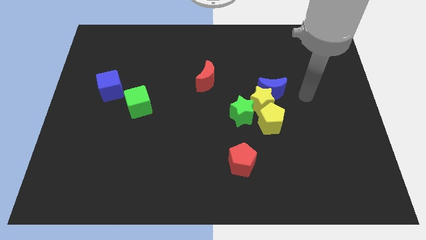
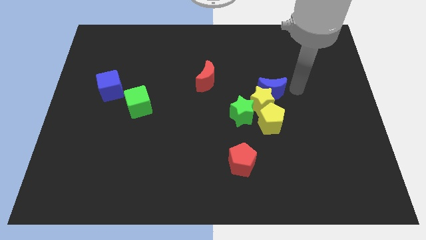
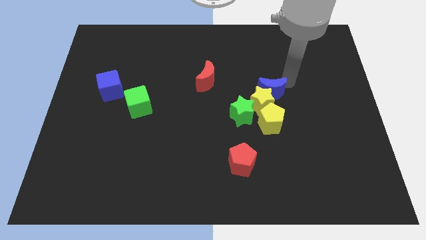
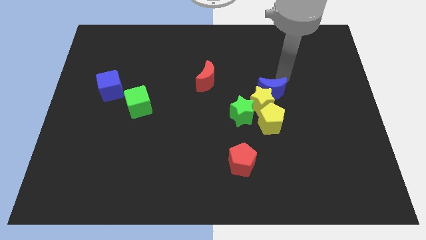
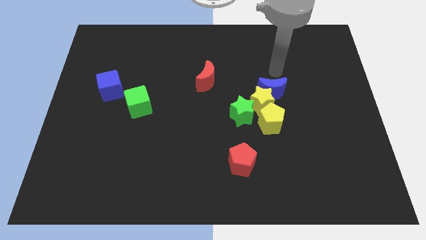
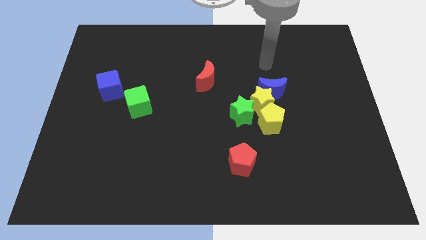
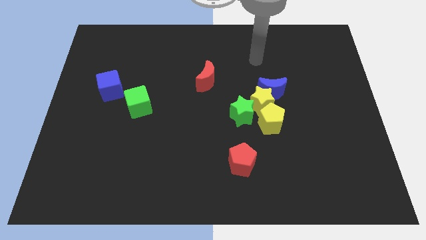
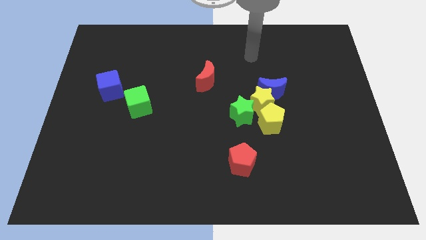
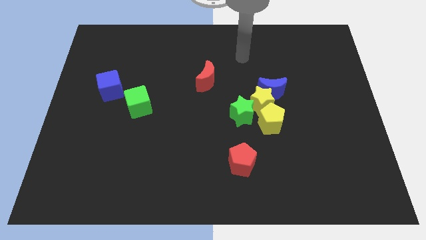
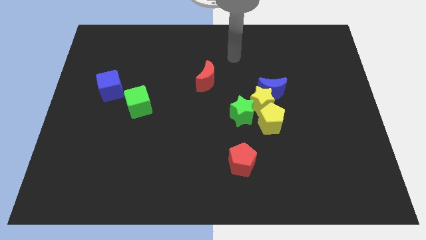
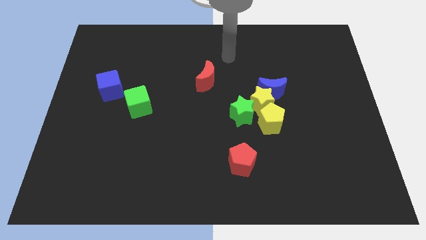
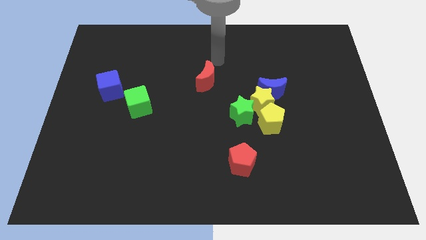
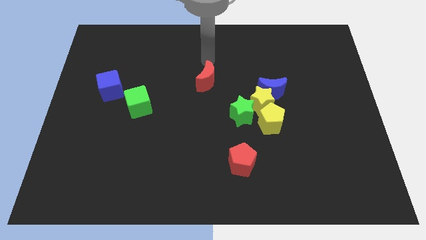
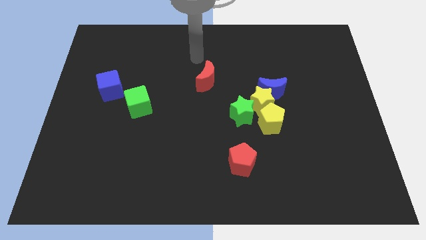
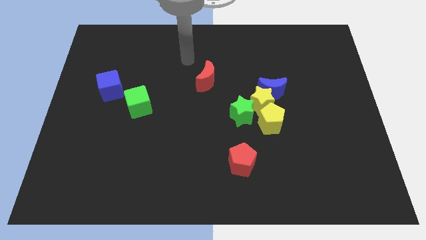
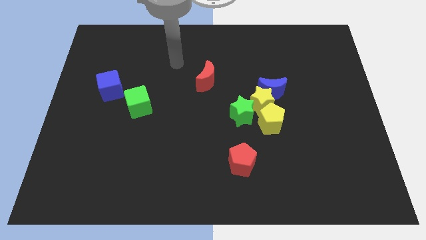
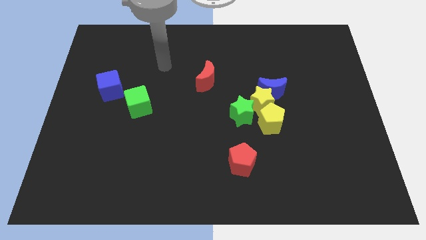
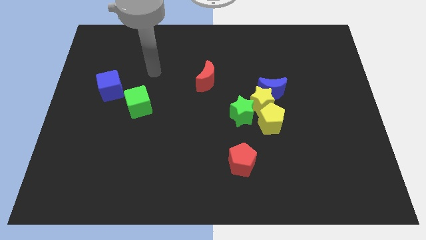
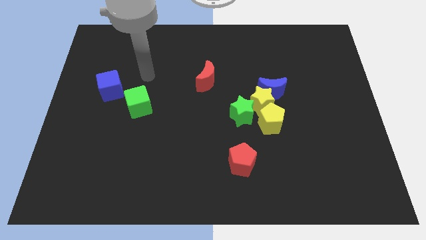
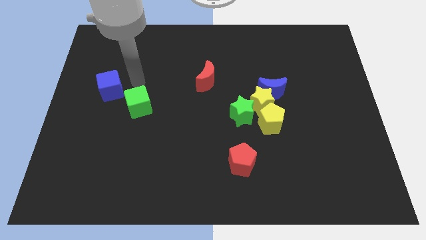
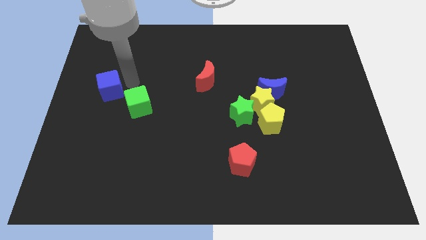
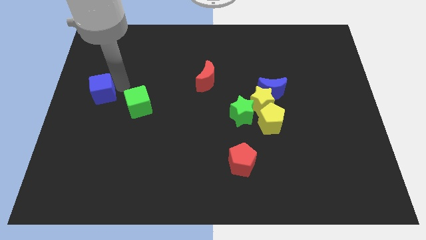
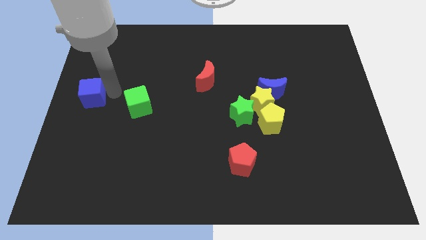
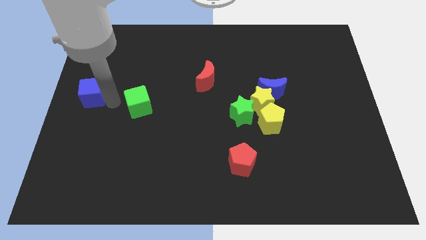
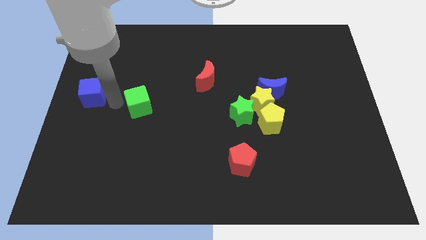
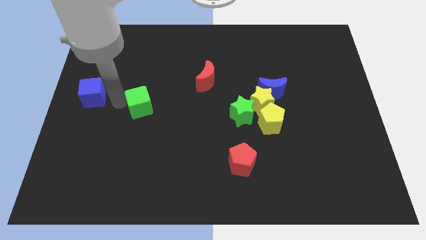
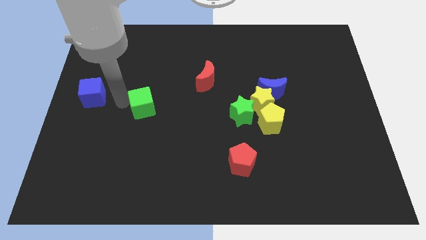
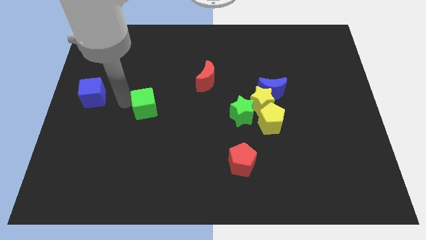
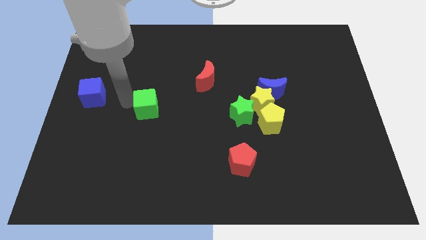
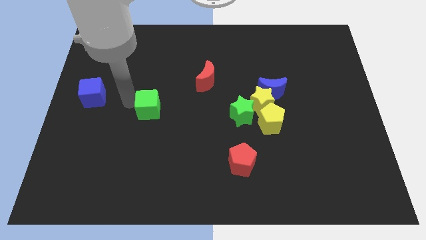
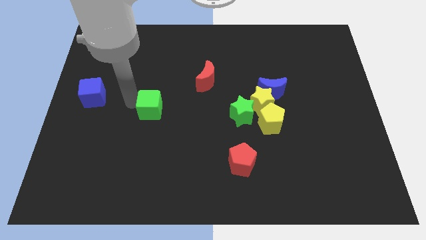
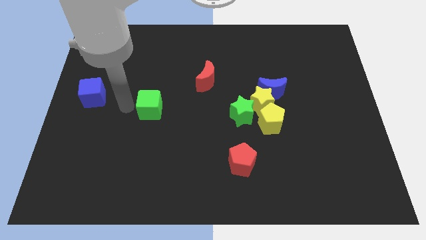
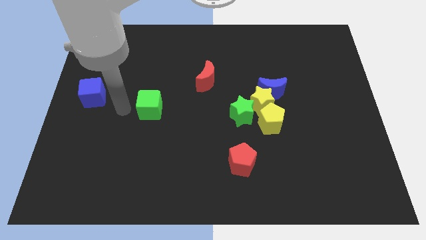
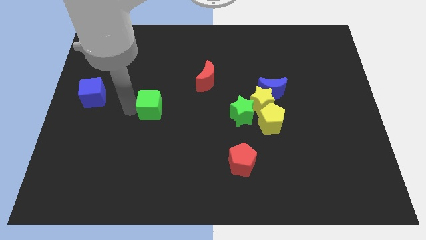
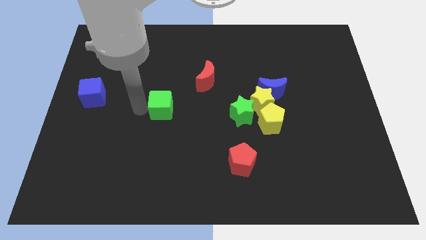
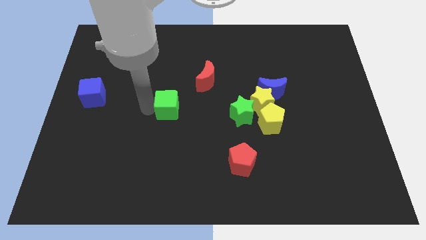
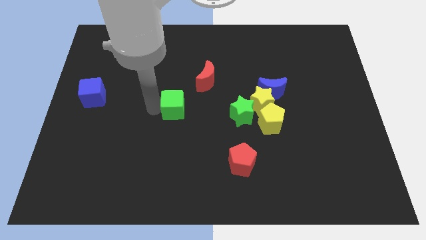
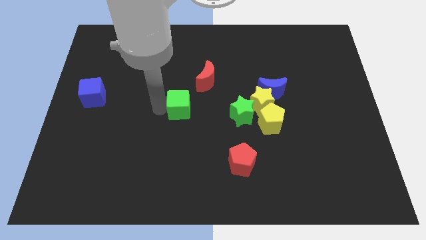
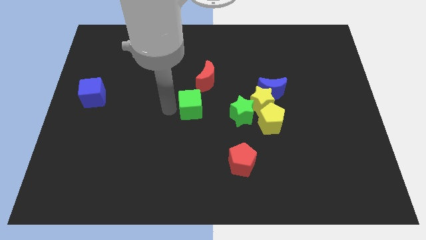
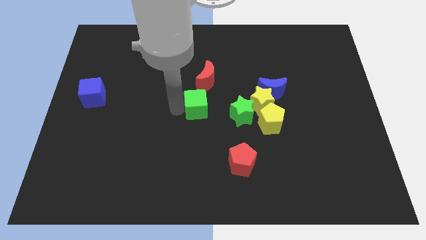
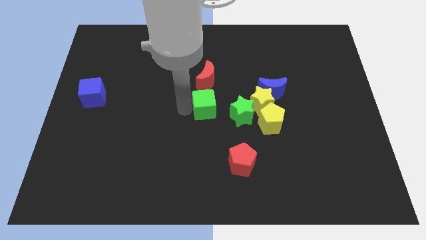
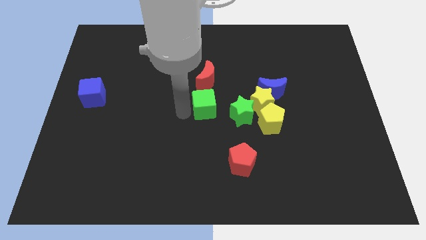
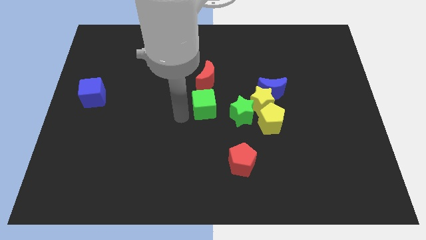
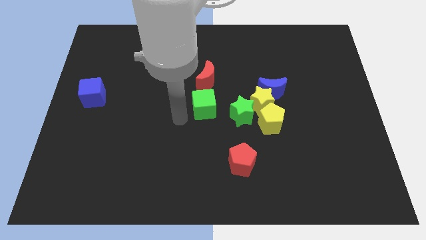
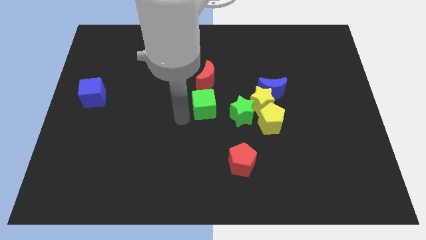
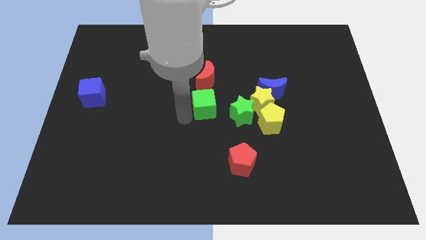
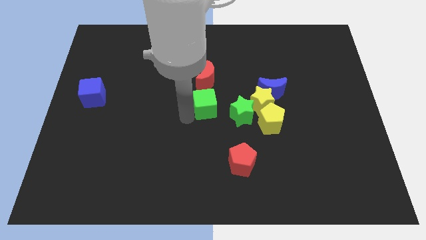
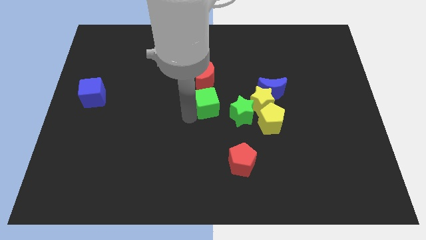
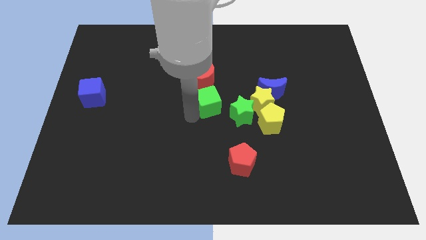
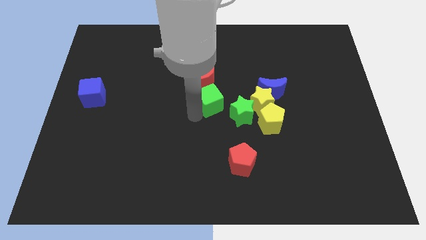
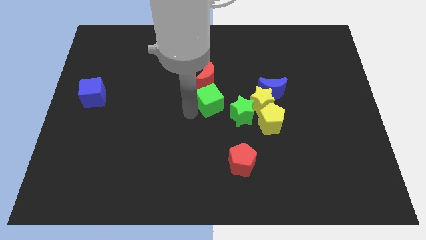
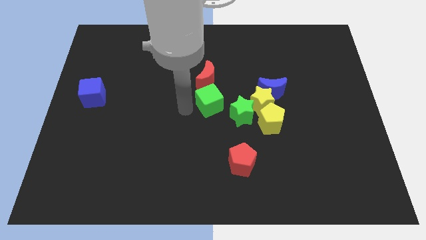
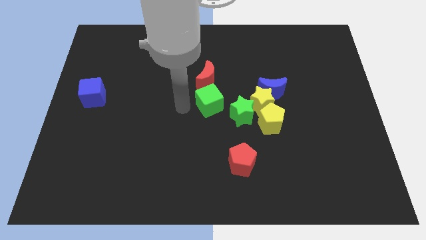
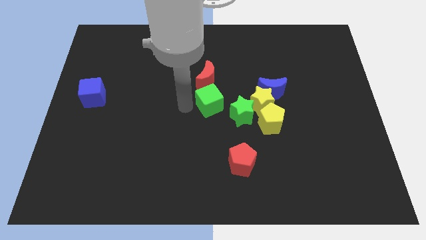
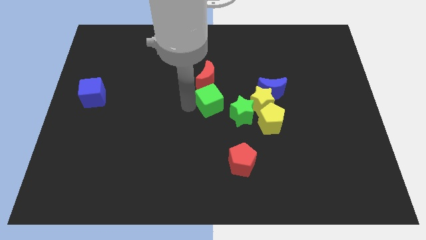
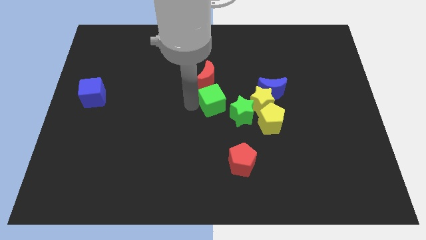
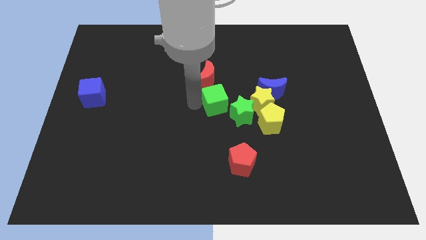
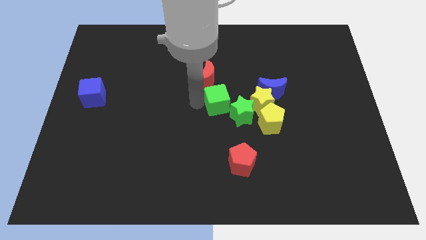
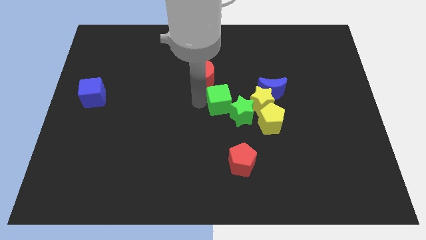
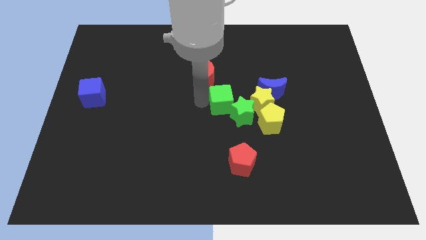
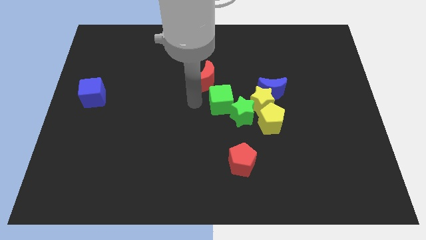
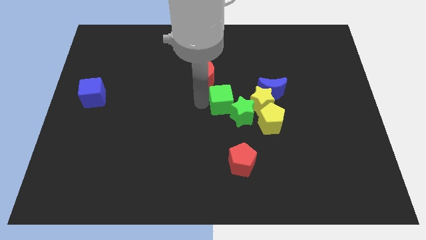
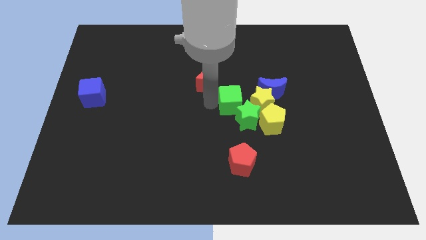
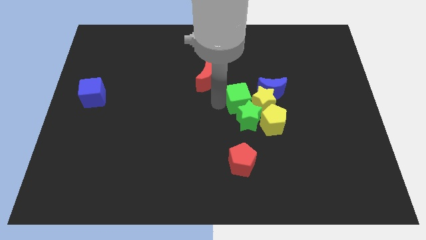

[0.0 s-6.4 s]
slide the green cube towards the yellow star

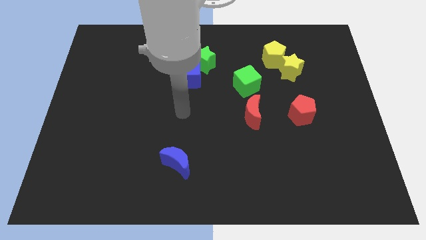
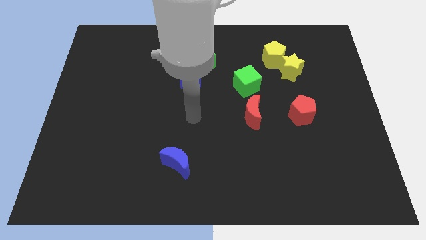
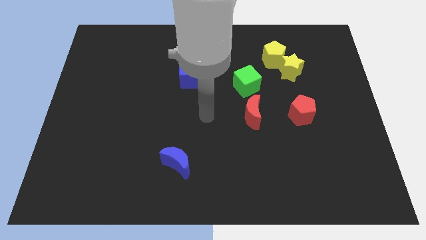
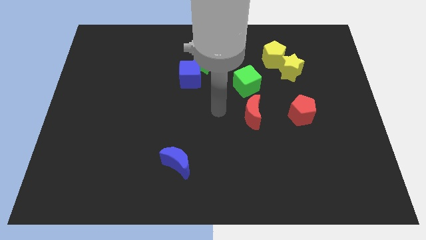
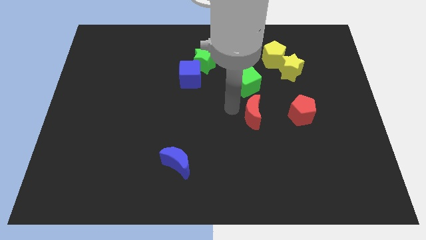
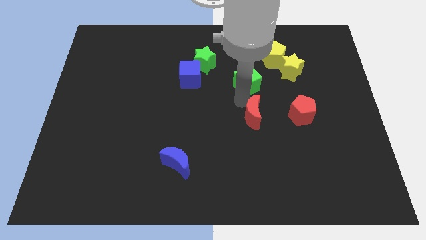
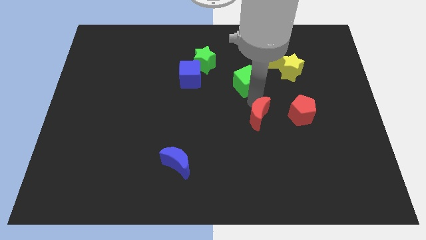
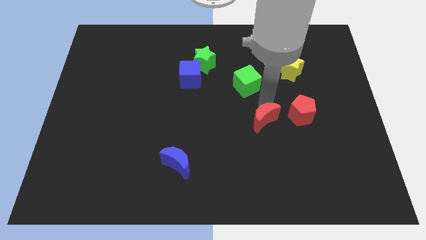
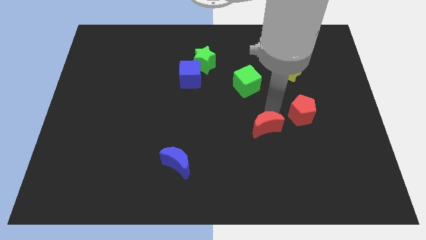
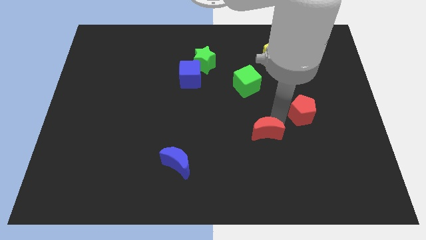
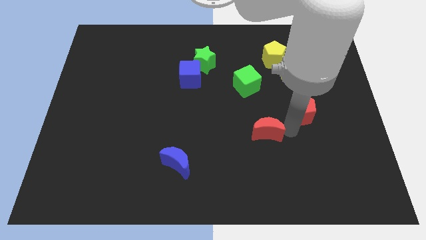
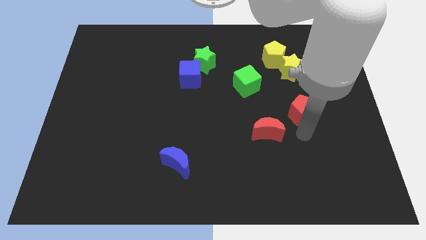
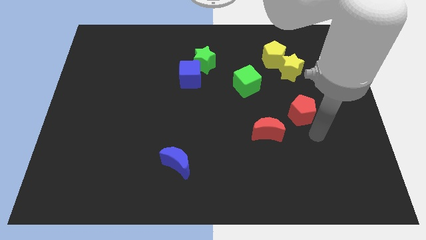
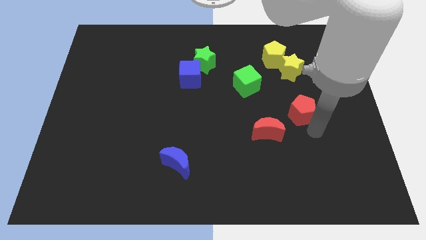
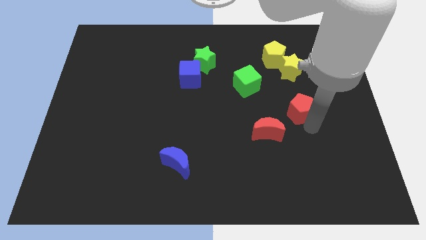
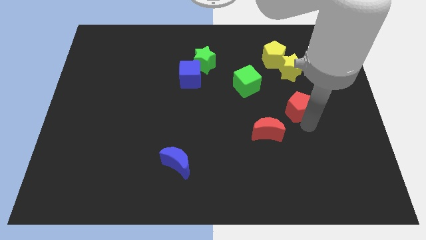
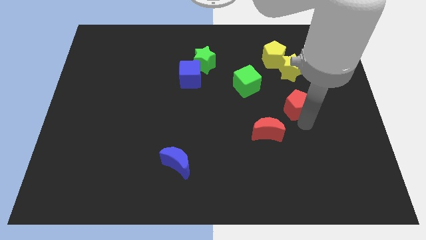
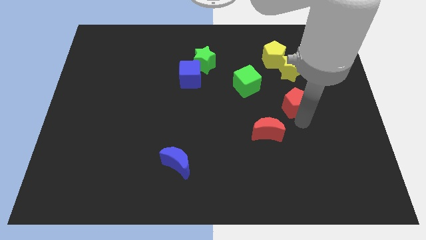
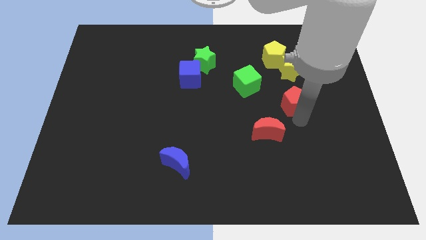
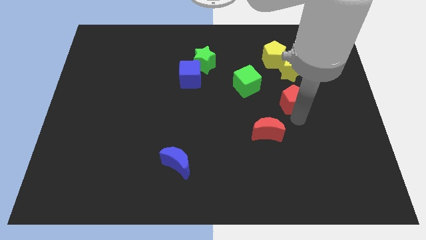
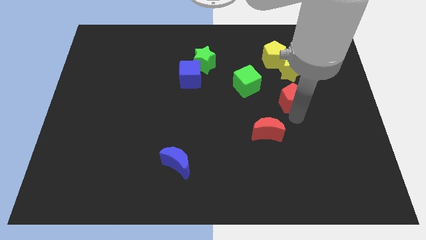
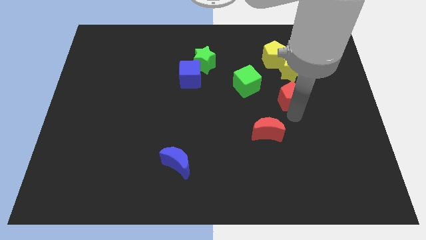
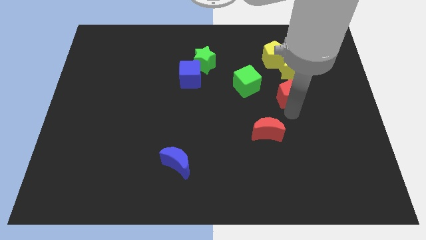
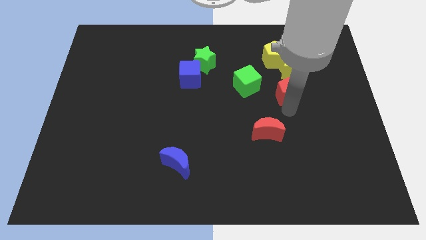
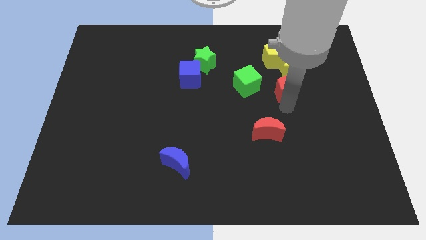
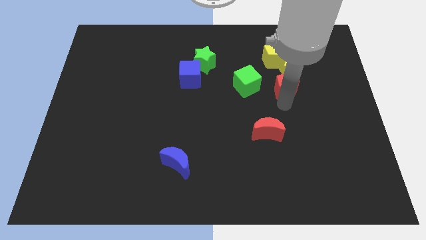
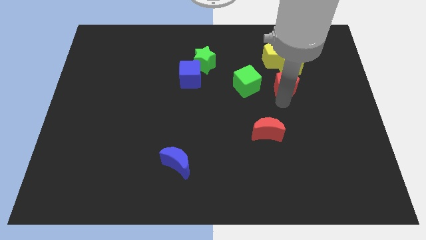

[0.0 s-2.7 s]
push the red pentagon towards the yellow star
